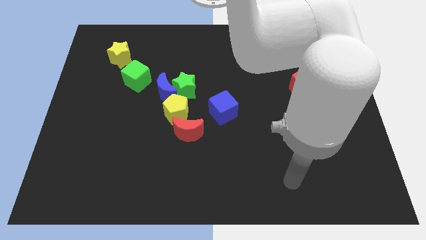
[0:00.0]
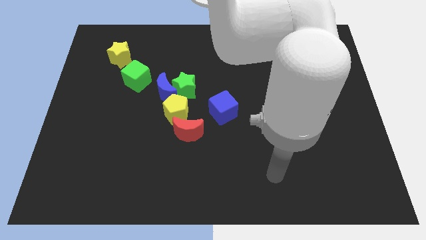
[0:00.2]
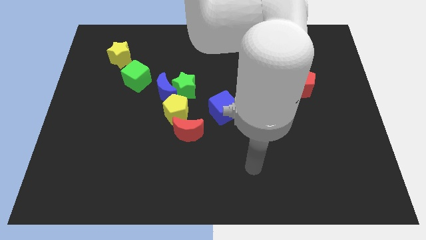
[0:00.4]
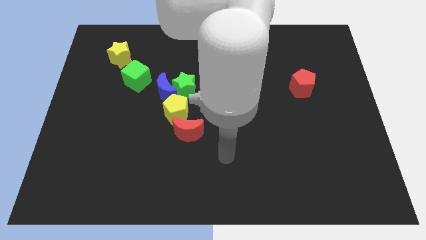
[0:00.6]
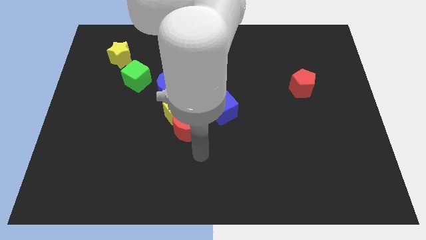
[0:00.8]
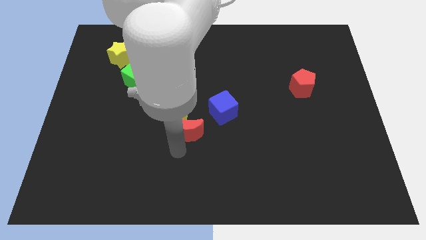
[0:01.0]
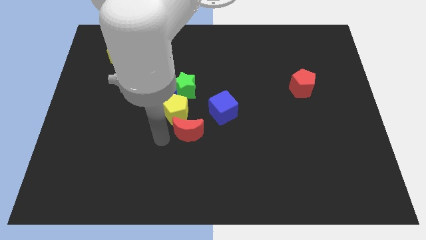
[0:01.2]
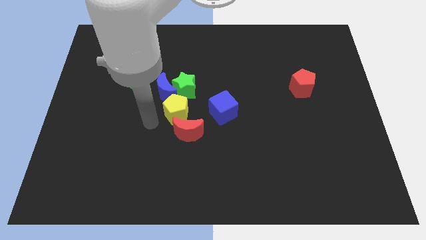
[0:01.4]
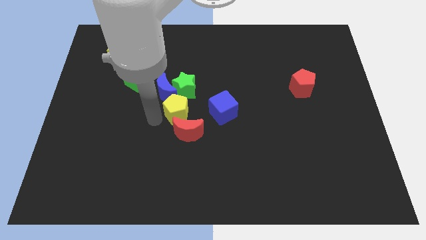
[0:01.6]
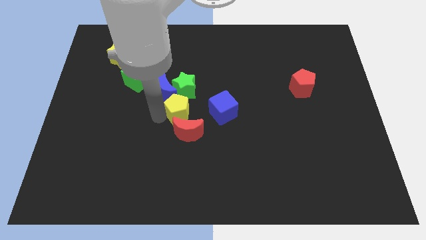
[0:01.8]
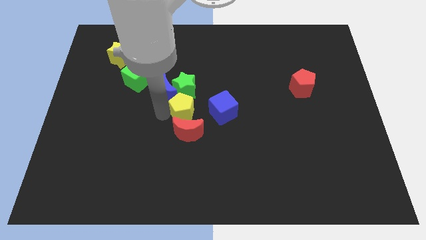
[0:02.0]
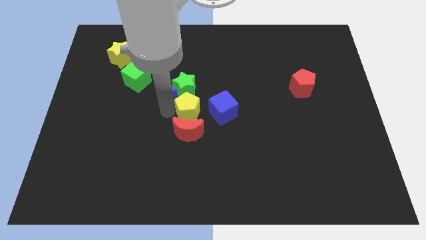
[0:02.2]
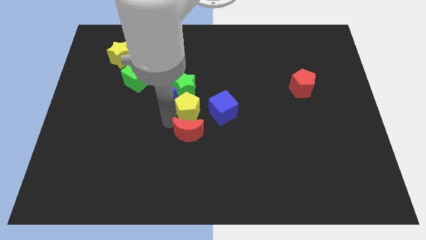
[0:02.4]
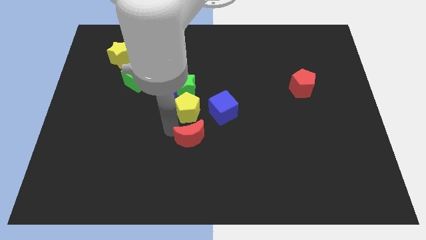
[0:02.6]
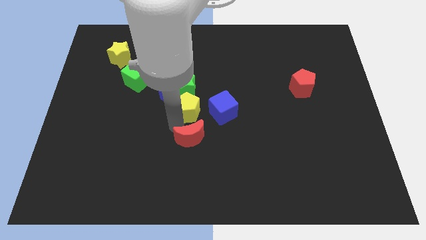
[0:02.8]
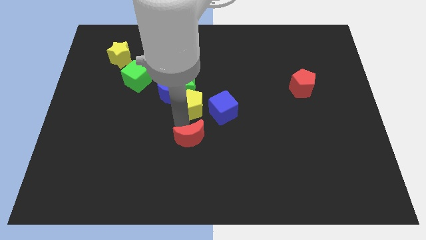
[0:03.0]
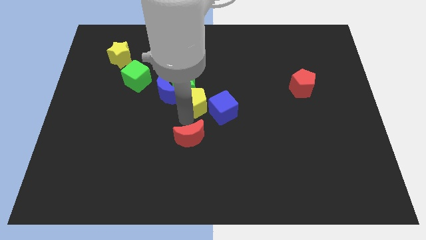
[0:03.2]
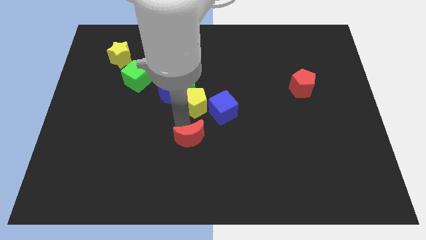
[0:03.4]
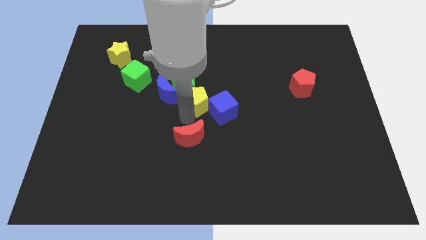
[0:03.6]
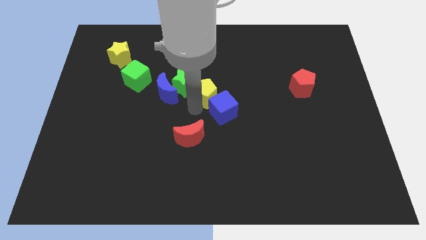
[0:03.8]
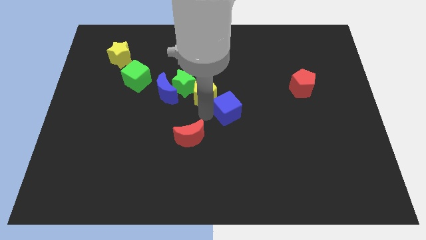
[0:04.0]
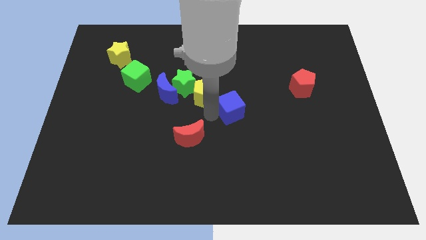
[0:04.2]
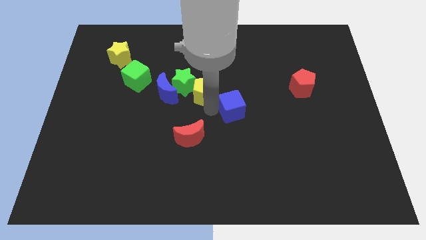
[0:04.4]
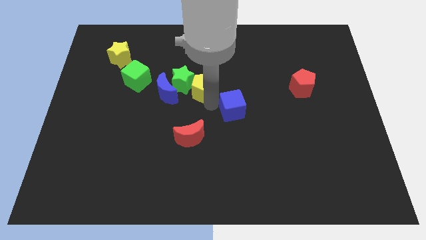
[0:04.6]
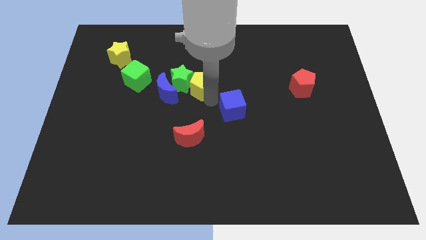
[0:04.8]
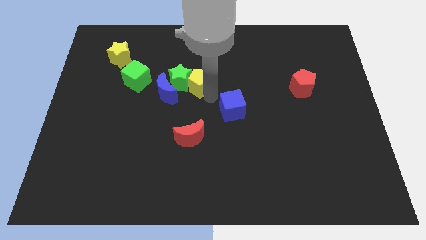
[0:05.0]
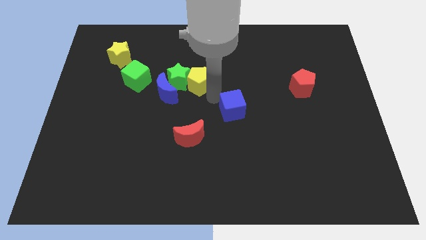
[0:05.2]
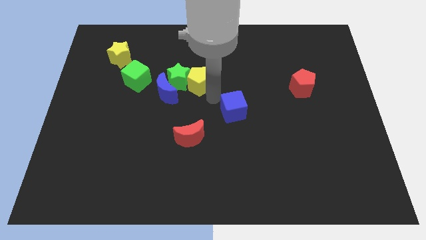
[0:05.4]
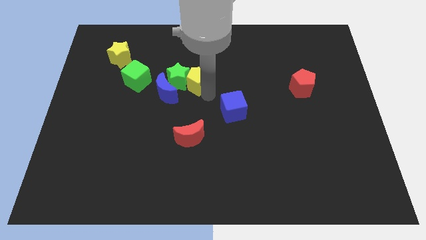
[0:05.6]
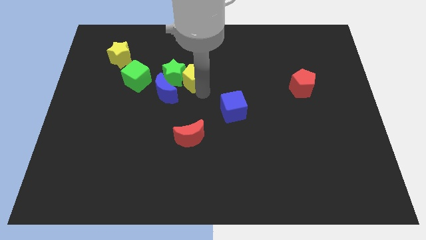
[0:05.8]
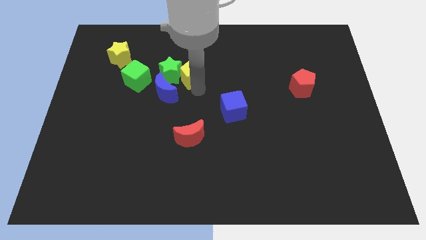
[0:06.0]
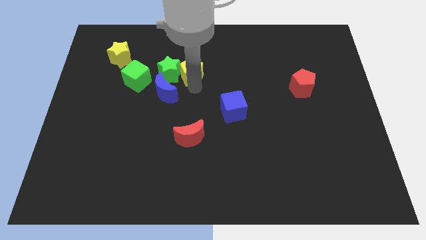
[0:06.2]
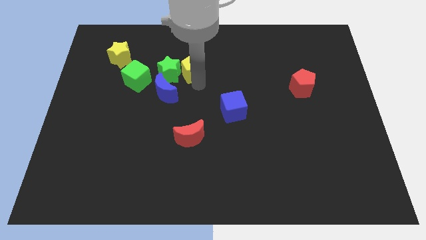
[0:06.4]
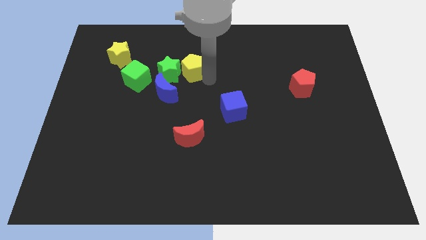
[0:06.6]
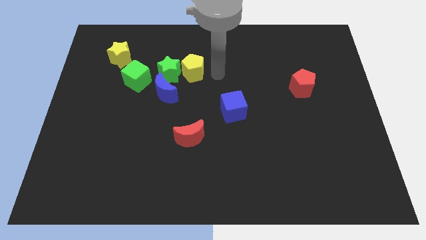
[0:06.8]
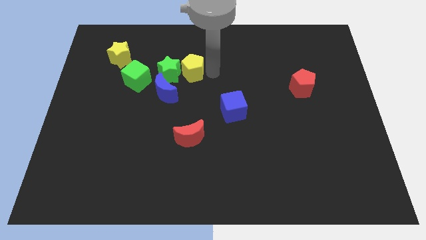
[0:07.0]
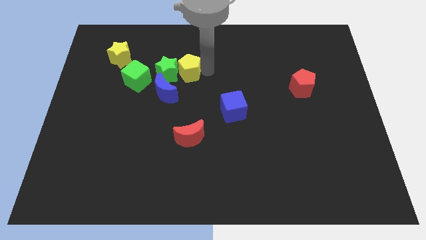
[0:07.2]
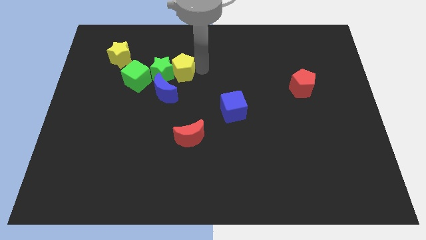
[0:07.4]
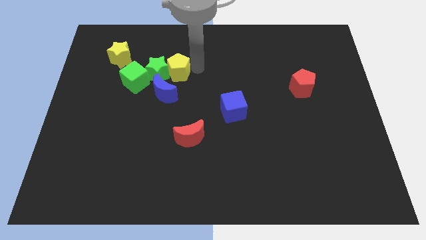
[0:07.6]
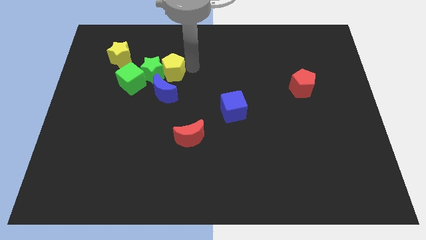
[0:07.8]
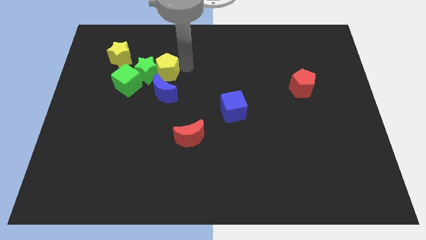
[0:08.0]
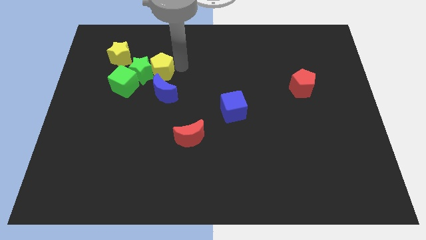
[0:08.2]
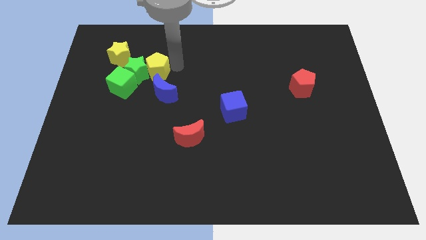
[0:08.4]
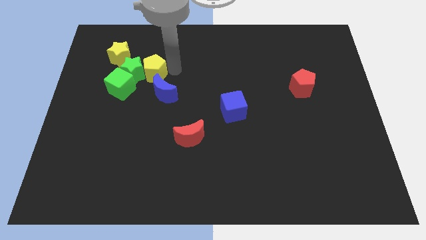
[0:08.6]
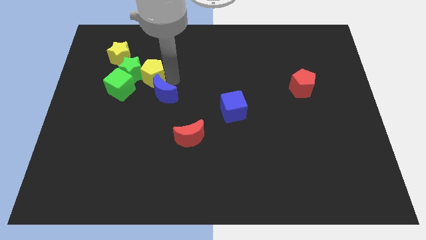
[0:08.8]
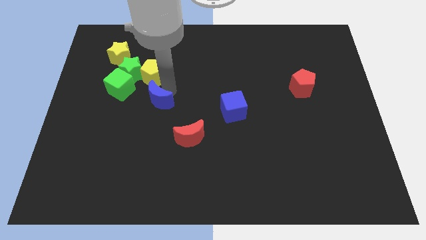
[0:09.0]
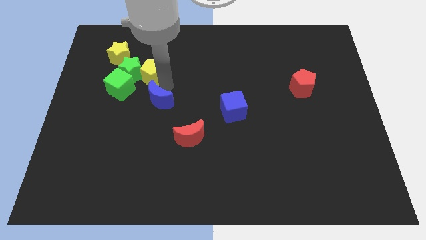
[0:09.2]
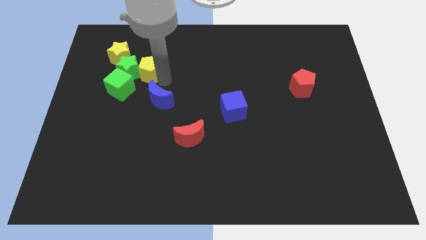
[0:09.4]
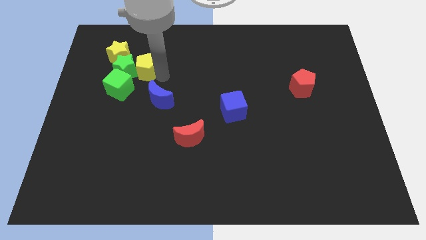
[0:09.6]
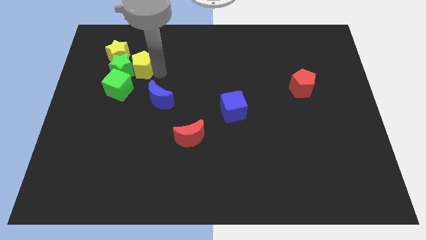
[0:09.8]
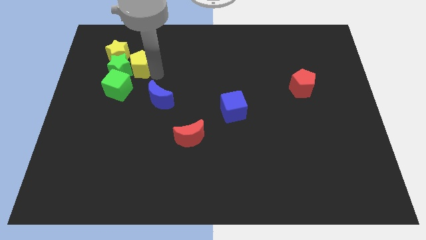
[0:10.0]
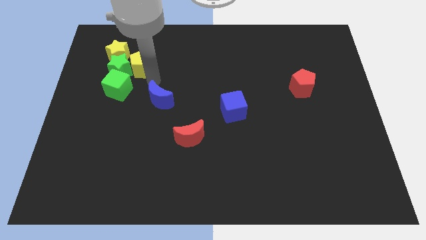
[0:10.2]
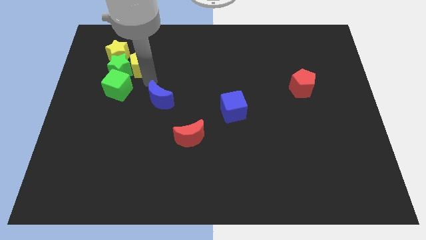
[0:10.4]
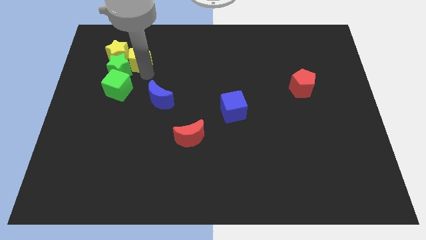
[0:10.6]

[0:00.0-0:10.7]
put the yellow pentagon towards the yellow star

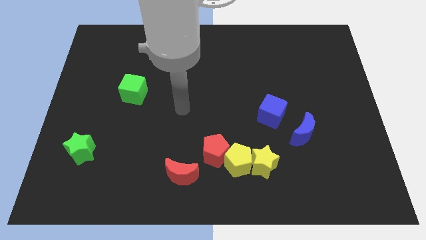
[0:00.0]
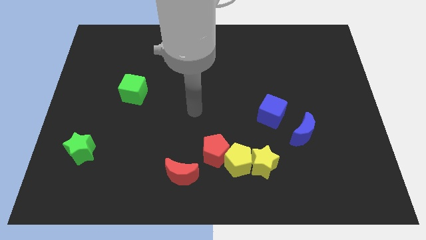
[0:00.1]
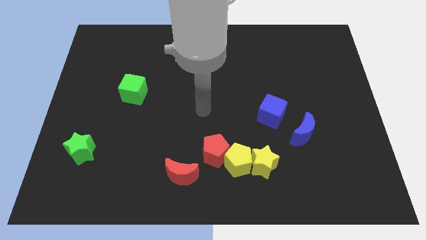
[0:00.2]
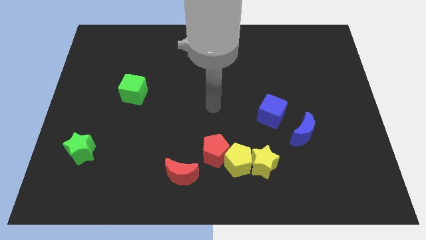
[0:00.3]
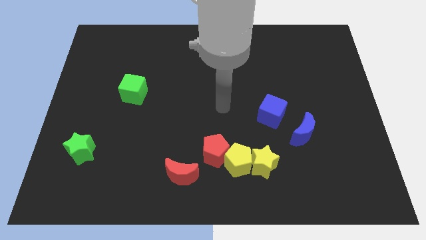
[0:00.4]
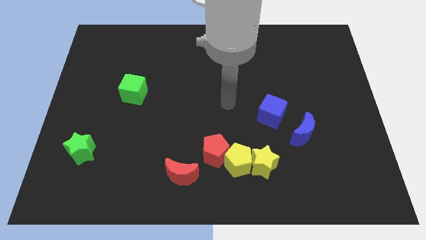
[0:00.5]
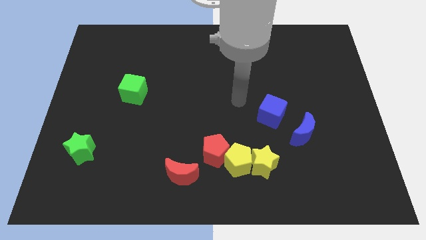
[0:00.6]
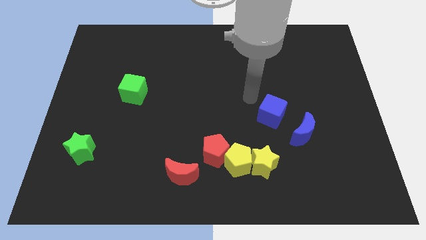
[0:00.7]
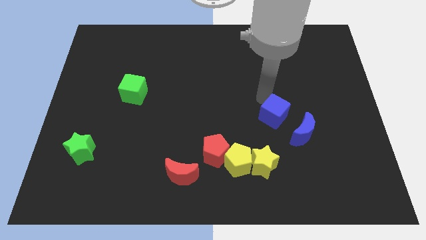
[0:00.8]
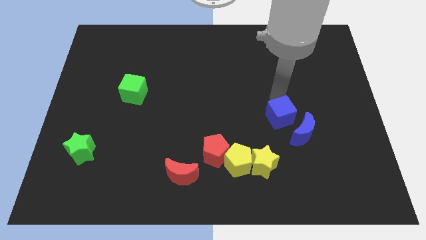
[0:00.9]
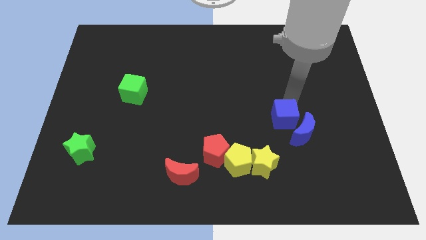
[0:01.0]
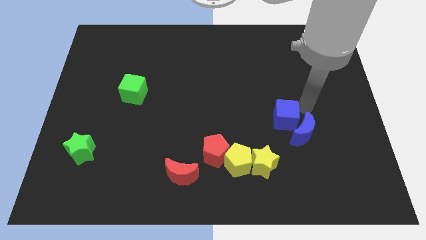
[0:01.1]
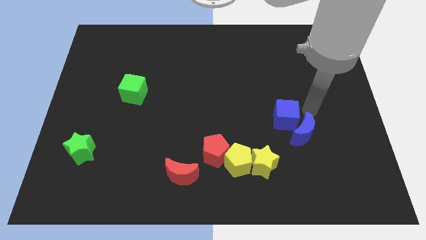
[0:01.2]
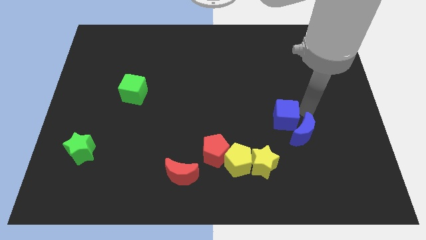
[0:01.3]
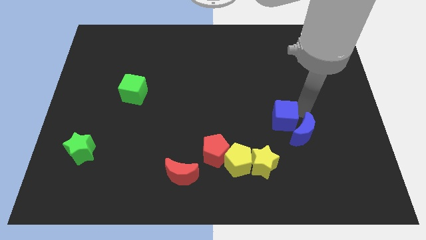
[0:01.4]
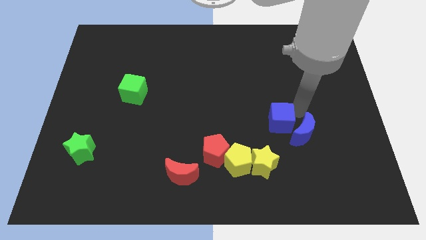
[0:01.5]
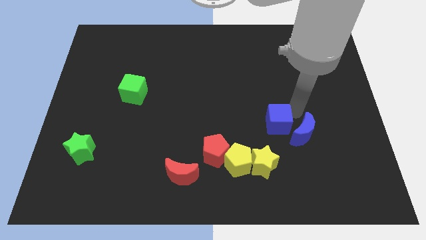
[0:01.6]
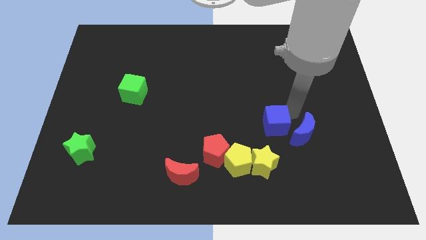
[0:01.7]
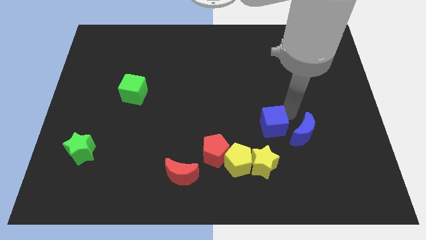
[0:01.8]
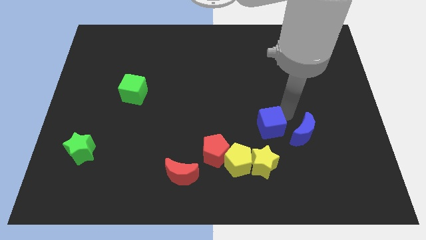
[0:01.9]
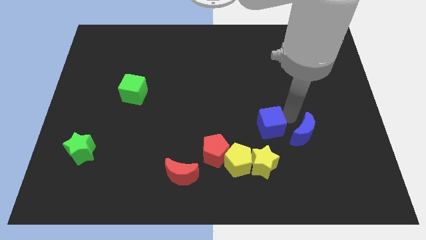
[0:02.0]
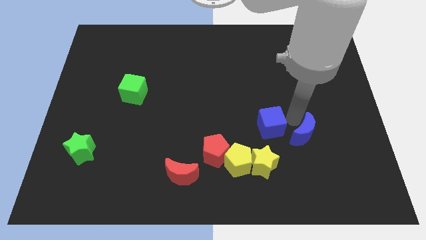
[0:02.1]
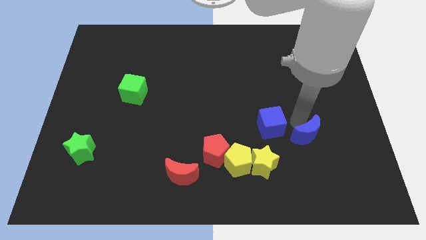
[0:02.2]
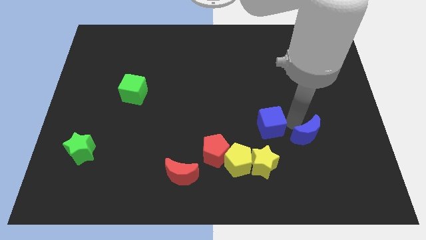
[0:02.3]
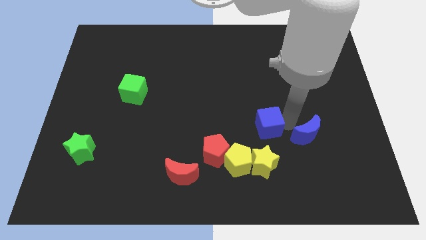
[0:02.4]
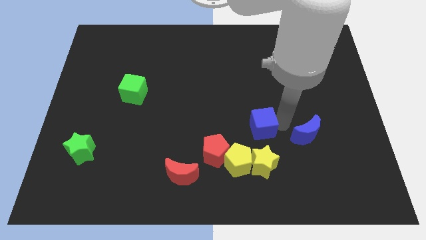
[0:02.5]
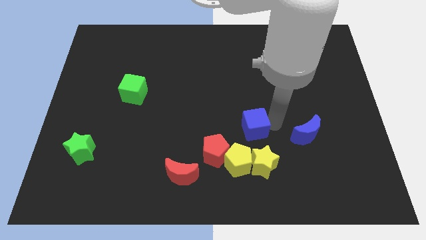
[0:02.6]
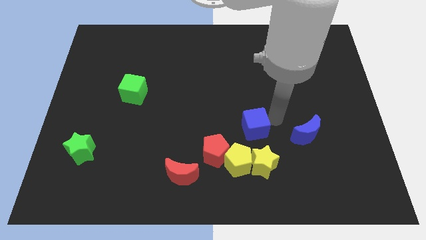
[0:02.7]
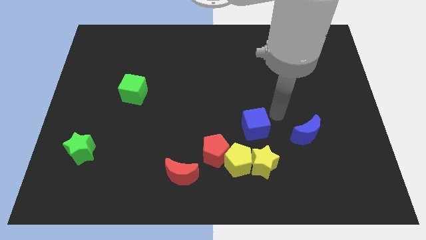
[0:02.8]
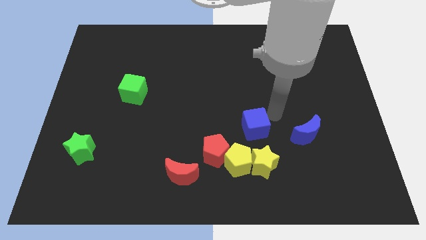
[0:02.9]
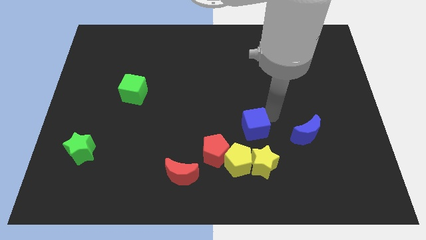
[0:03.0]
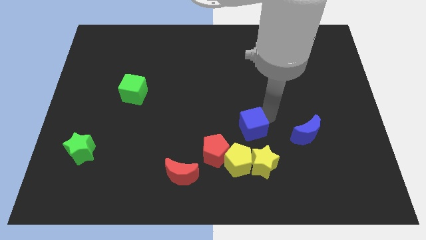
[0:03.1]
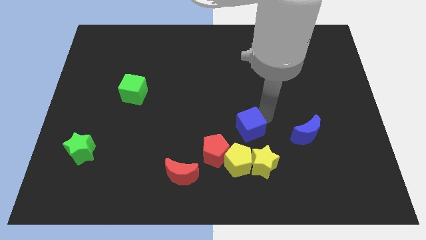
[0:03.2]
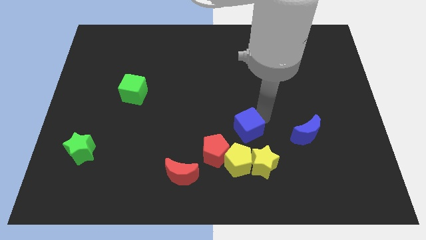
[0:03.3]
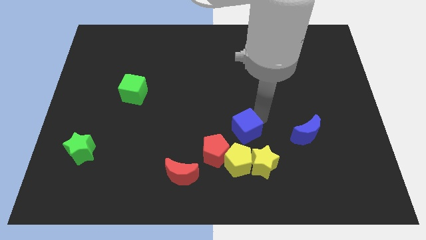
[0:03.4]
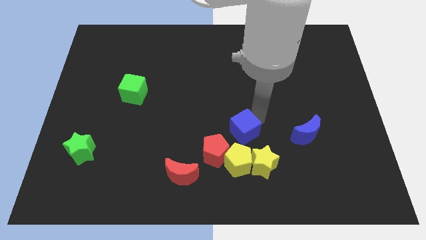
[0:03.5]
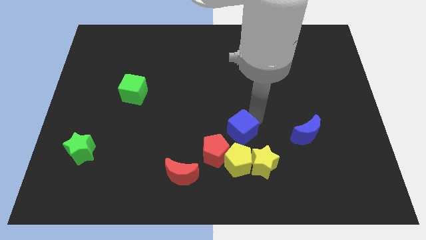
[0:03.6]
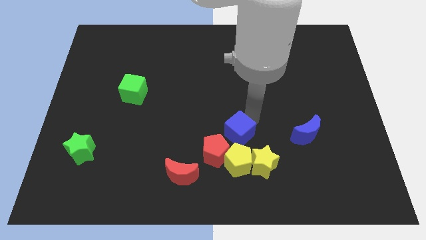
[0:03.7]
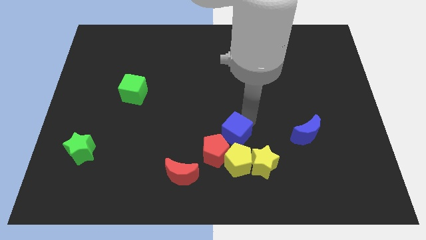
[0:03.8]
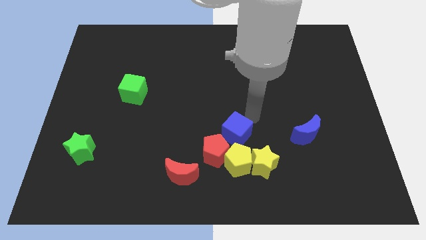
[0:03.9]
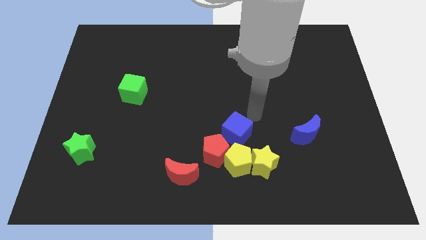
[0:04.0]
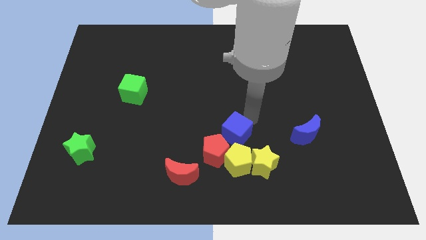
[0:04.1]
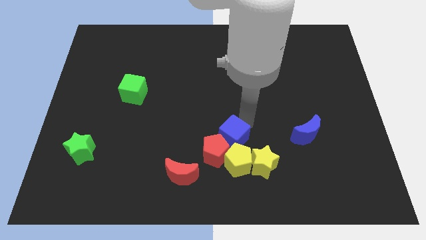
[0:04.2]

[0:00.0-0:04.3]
move the blue cube towards the red pentagon
